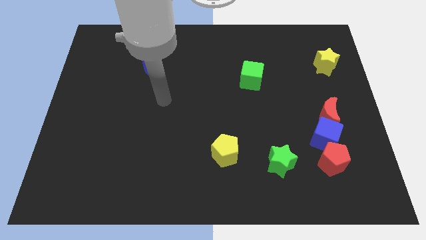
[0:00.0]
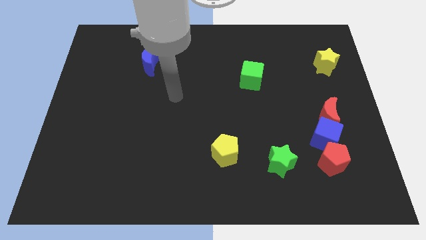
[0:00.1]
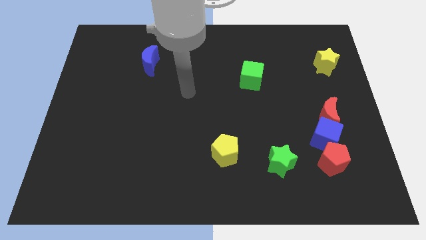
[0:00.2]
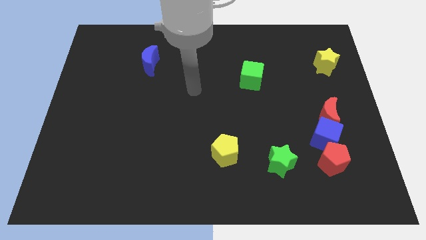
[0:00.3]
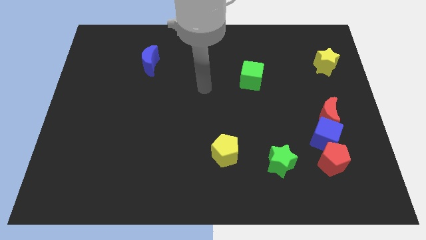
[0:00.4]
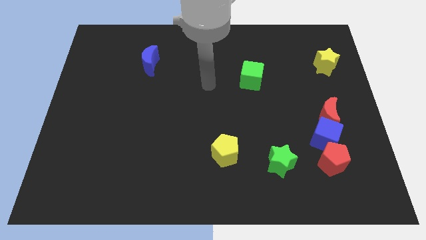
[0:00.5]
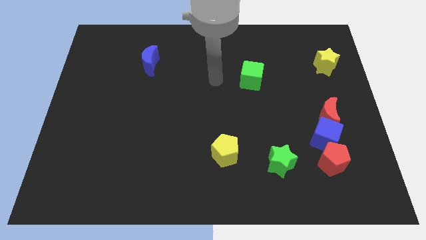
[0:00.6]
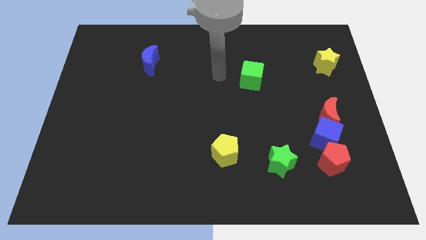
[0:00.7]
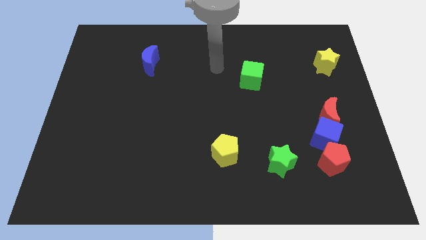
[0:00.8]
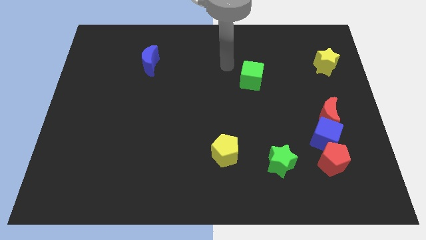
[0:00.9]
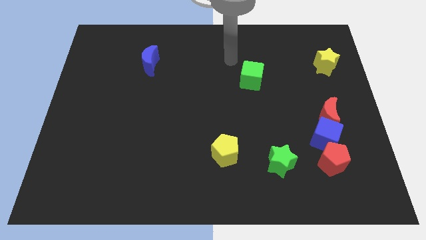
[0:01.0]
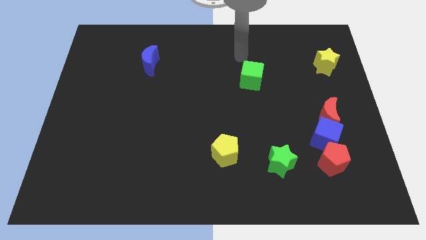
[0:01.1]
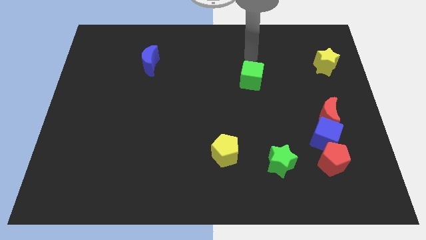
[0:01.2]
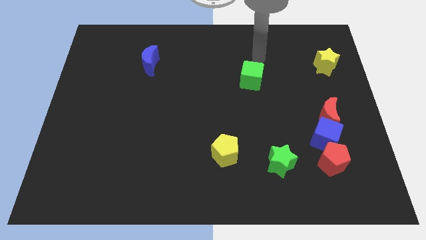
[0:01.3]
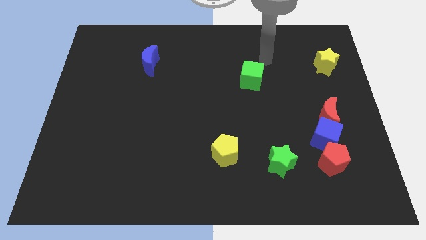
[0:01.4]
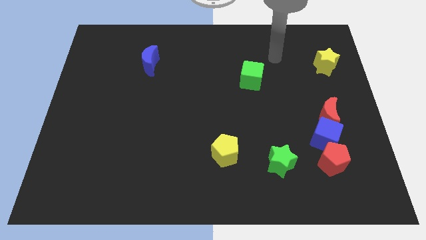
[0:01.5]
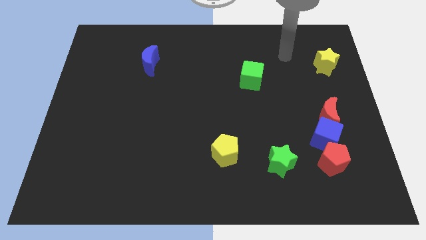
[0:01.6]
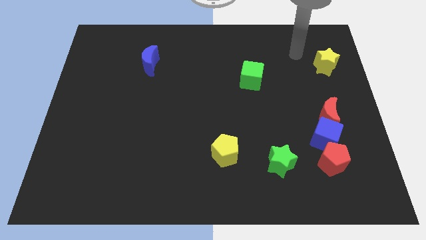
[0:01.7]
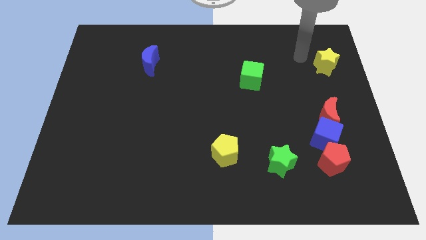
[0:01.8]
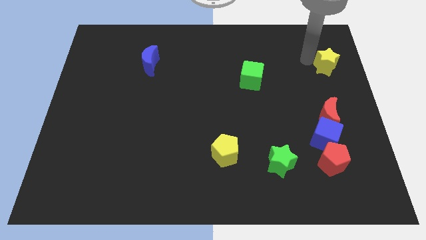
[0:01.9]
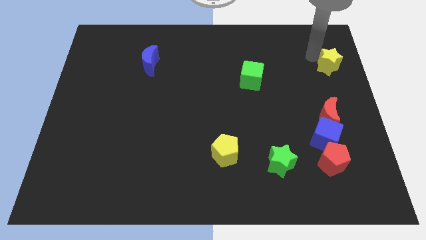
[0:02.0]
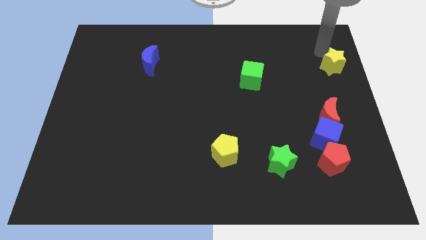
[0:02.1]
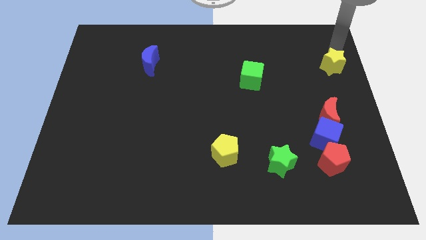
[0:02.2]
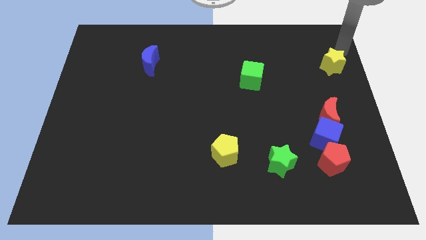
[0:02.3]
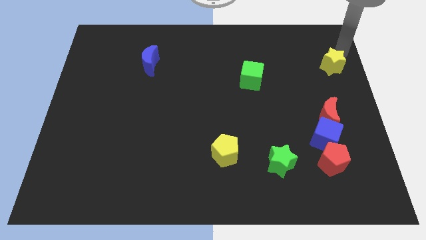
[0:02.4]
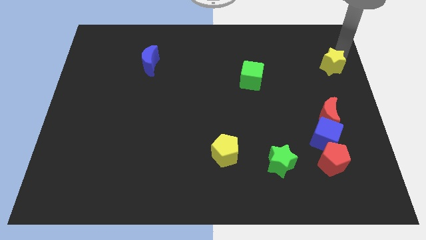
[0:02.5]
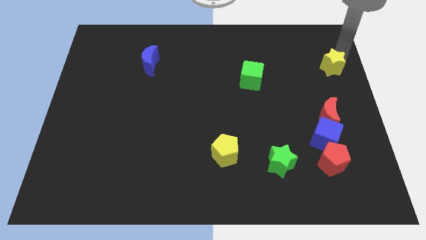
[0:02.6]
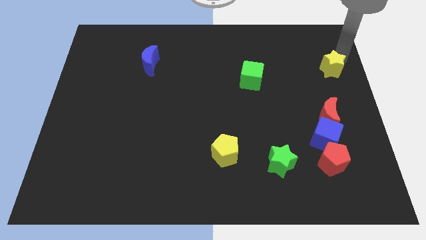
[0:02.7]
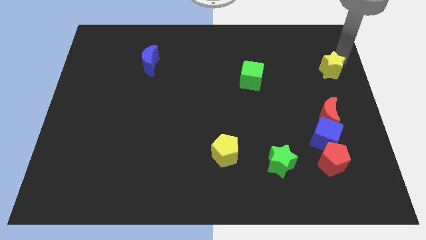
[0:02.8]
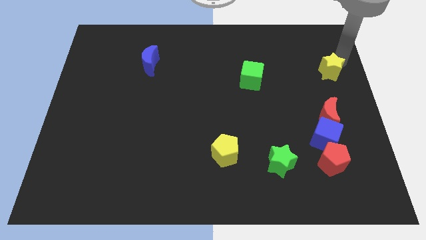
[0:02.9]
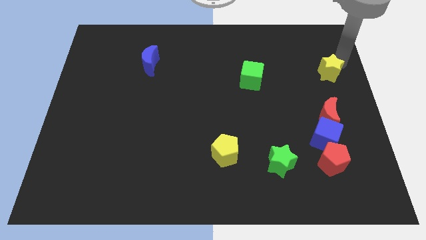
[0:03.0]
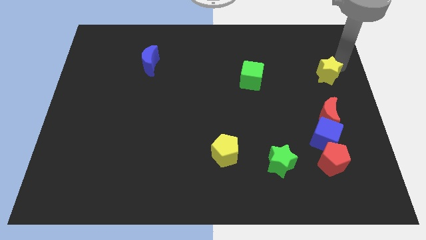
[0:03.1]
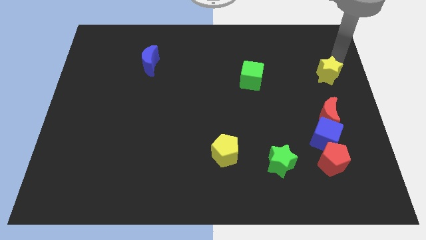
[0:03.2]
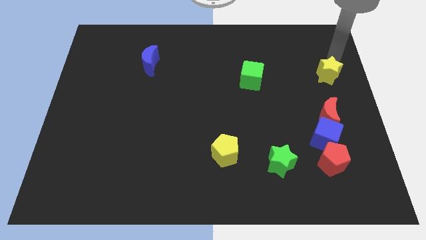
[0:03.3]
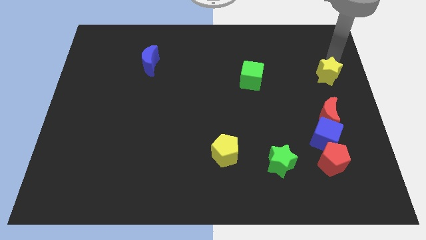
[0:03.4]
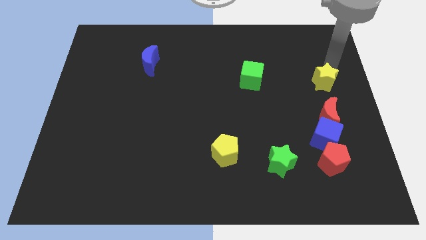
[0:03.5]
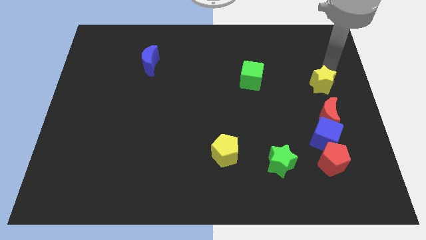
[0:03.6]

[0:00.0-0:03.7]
slide the yellow star to the top side of the blue cube

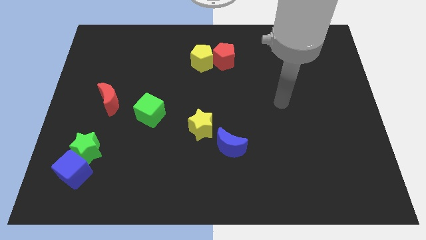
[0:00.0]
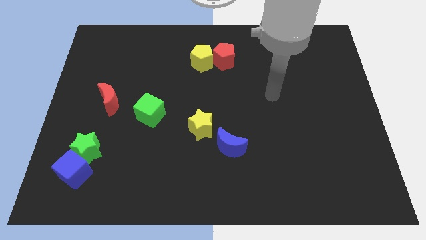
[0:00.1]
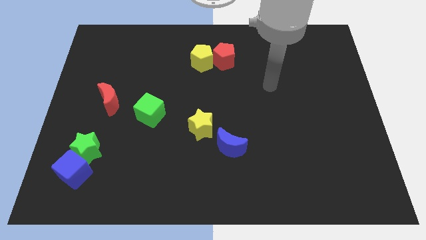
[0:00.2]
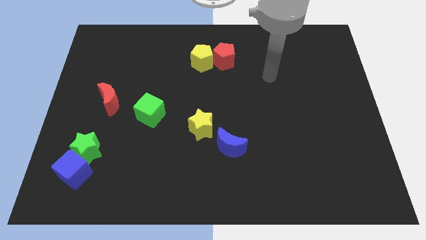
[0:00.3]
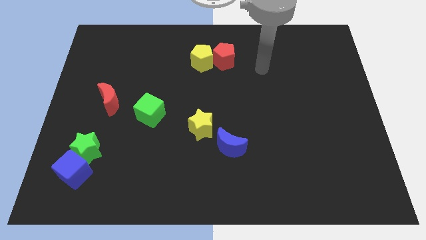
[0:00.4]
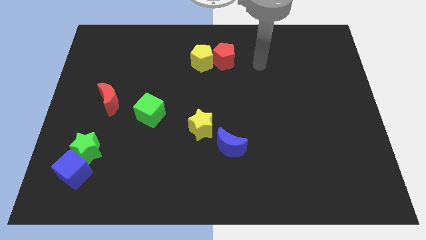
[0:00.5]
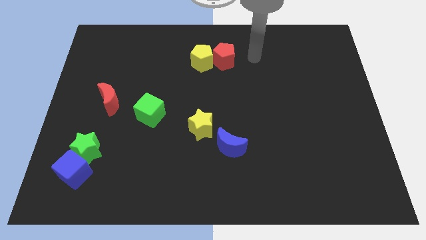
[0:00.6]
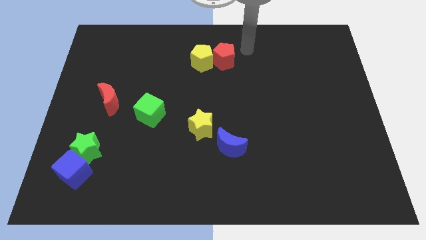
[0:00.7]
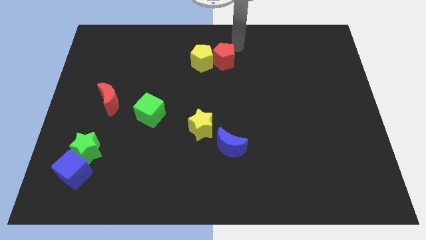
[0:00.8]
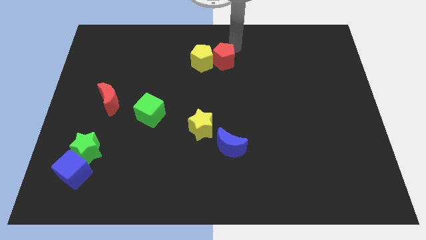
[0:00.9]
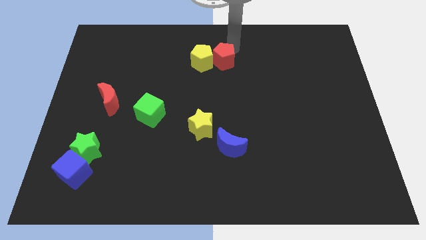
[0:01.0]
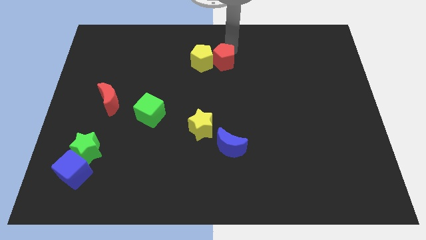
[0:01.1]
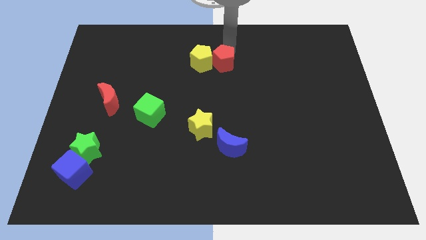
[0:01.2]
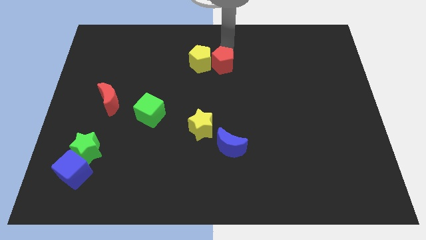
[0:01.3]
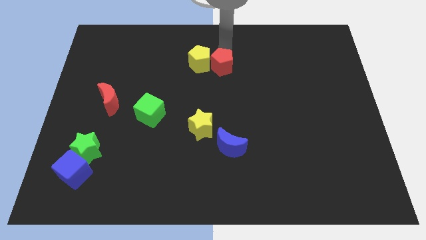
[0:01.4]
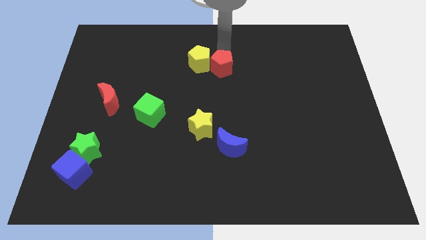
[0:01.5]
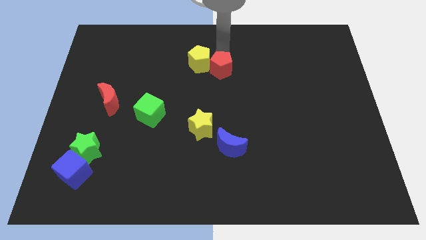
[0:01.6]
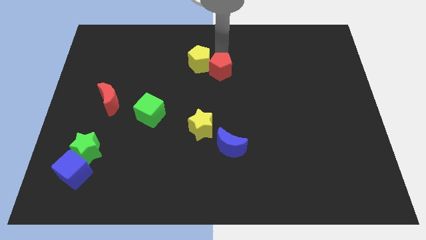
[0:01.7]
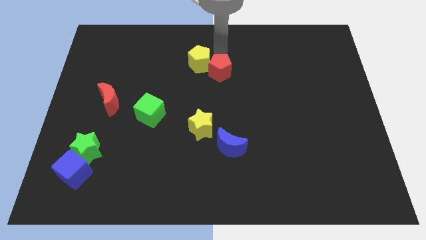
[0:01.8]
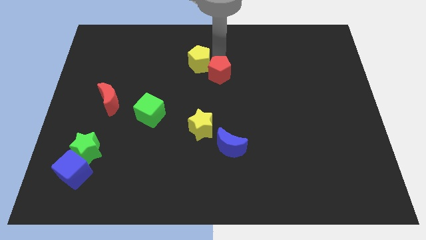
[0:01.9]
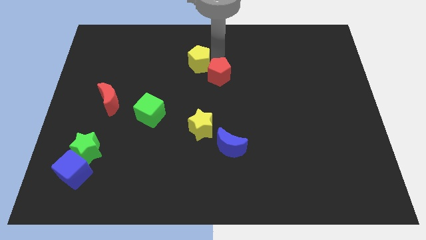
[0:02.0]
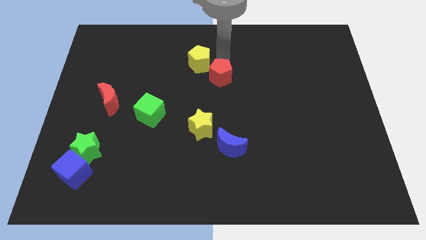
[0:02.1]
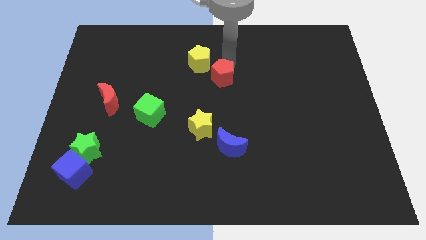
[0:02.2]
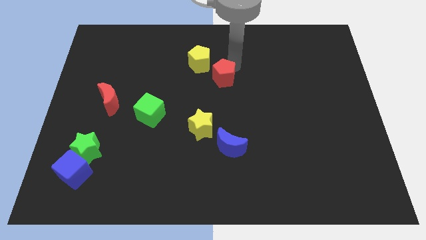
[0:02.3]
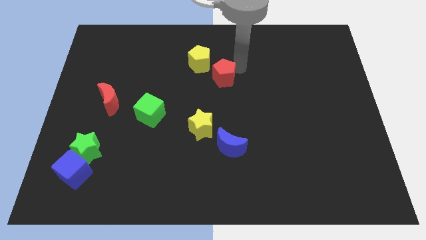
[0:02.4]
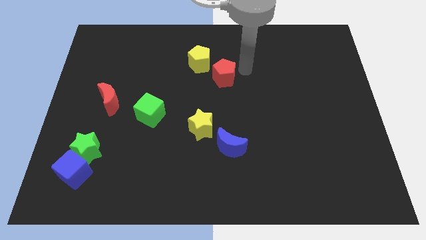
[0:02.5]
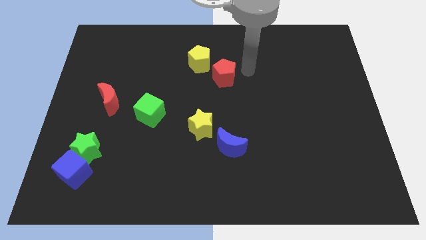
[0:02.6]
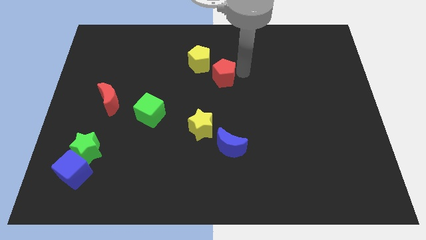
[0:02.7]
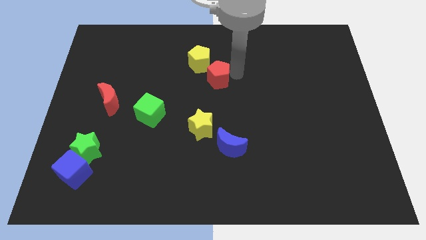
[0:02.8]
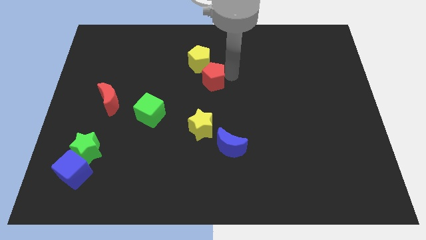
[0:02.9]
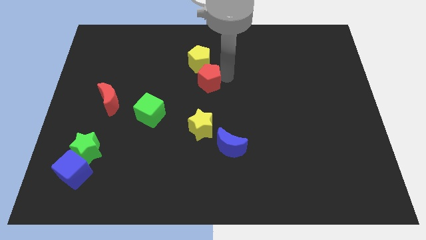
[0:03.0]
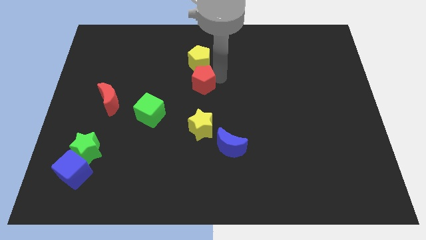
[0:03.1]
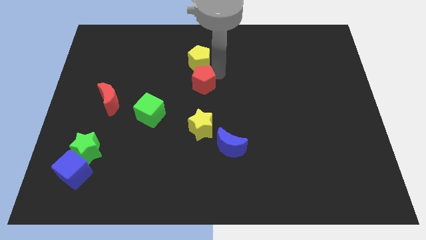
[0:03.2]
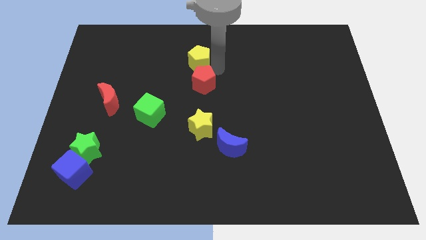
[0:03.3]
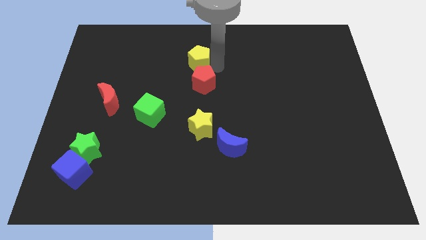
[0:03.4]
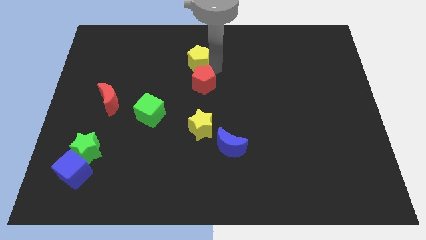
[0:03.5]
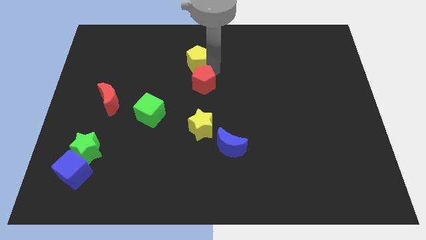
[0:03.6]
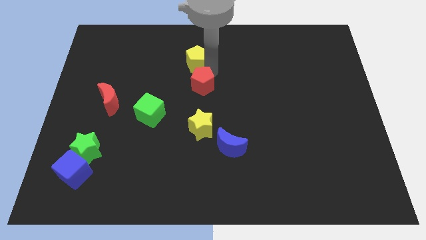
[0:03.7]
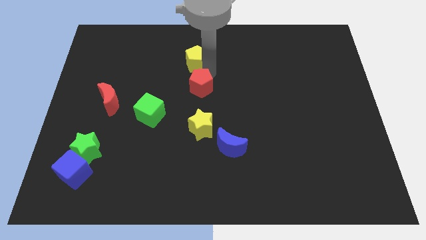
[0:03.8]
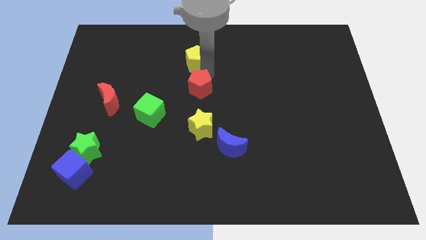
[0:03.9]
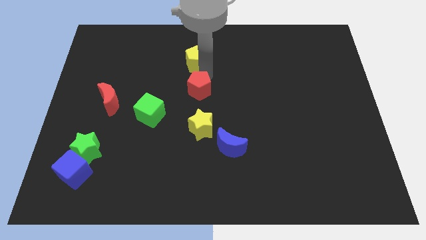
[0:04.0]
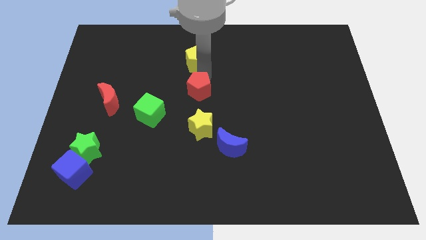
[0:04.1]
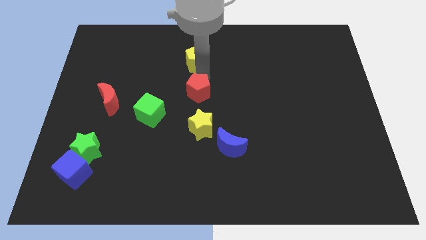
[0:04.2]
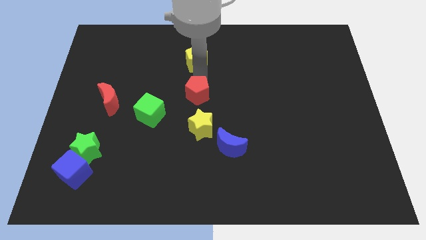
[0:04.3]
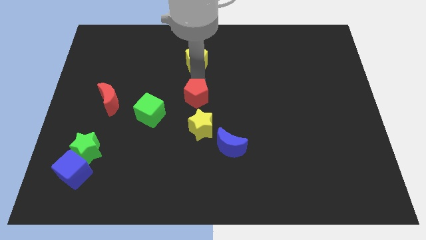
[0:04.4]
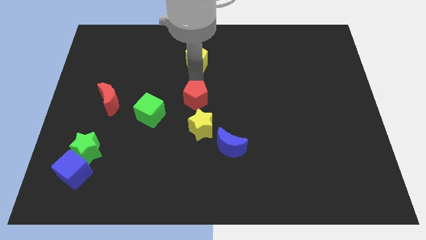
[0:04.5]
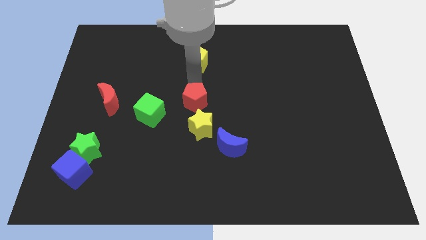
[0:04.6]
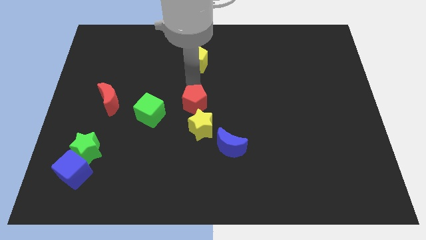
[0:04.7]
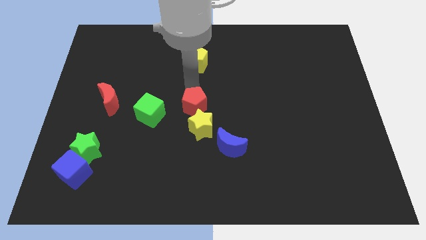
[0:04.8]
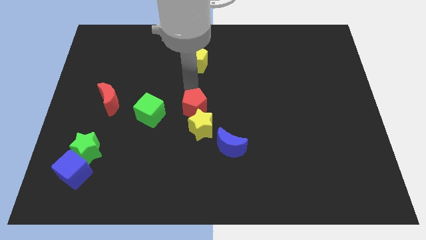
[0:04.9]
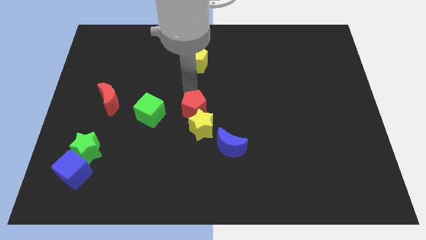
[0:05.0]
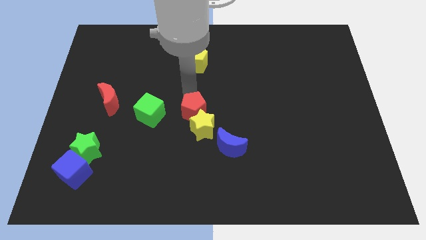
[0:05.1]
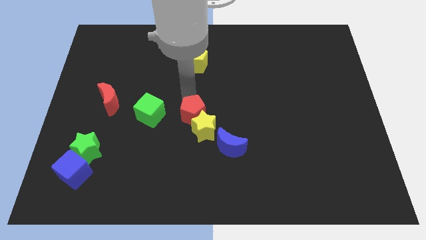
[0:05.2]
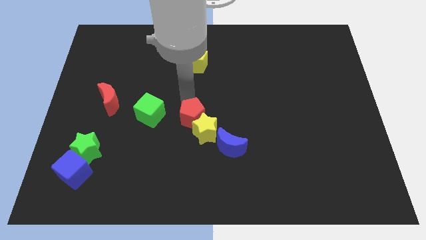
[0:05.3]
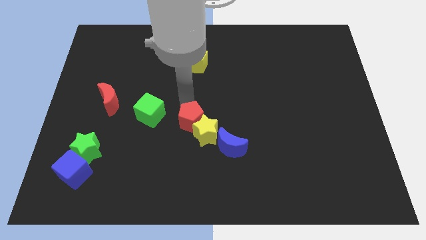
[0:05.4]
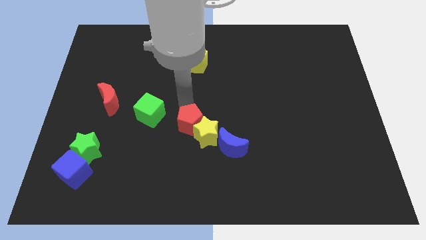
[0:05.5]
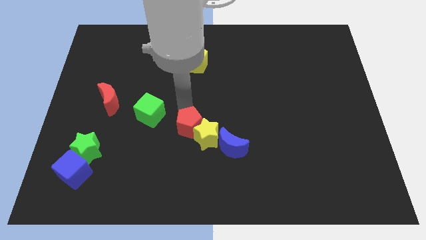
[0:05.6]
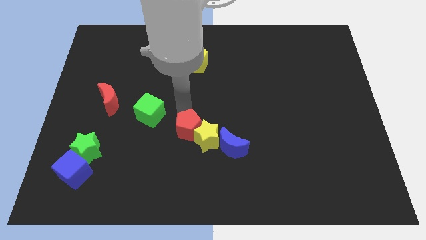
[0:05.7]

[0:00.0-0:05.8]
push the red pentagon to the left side of the blue moon
